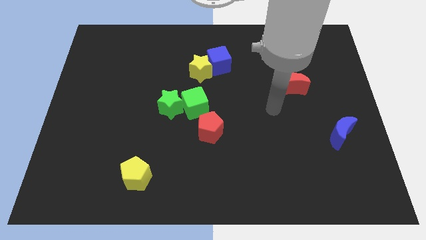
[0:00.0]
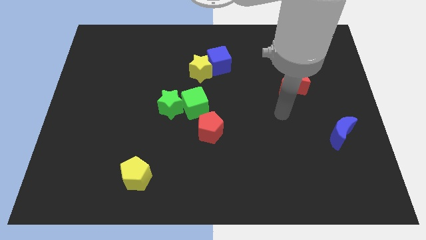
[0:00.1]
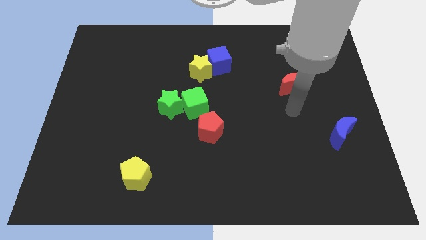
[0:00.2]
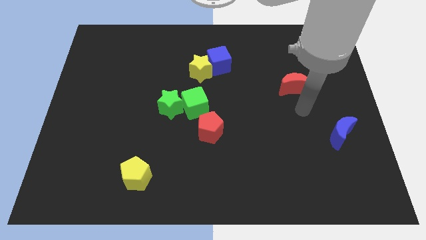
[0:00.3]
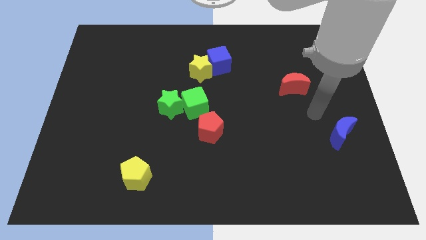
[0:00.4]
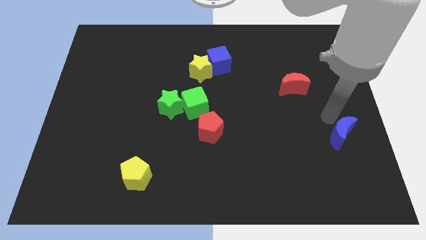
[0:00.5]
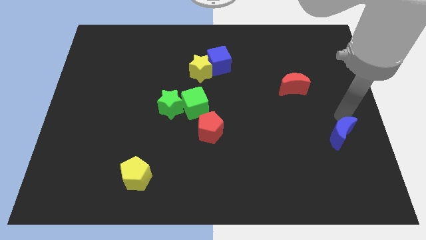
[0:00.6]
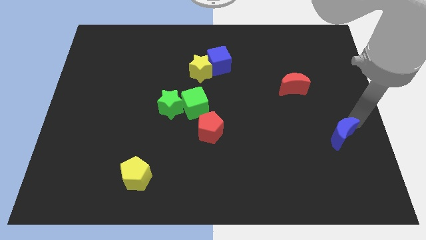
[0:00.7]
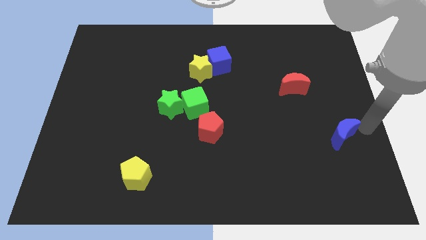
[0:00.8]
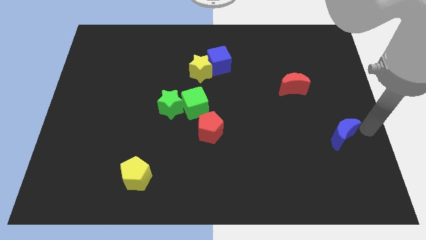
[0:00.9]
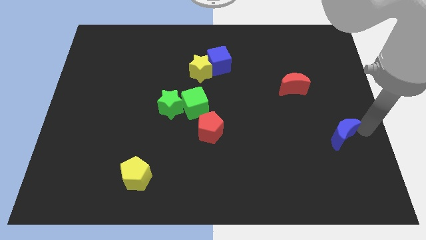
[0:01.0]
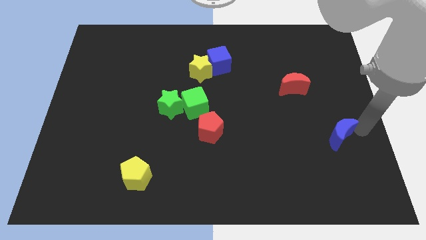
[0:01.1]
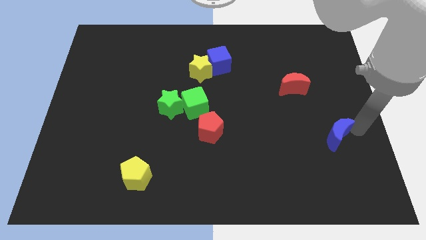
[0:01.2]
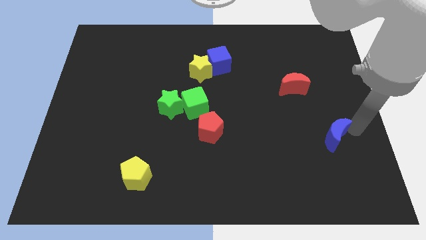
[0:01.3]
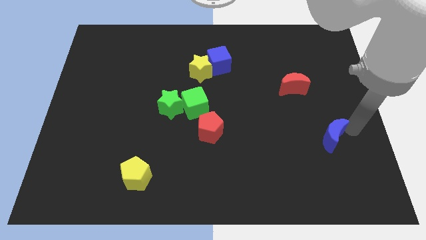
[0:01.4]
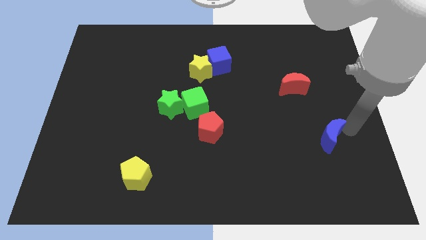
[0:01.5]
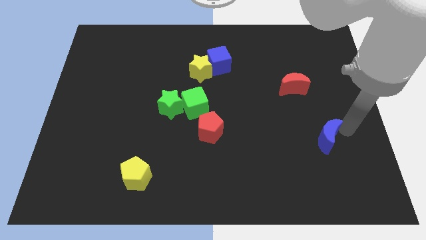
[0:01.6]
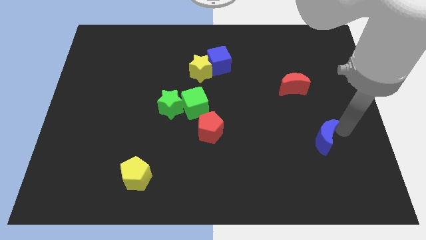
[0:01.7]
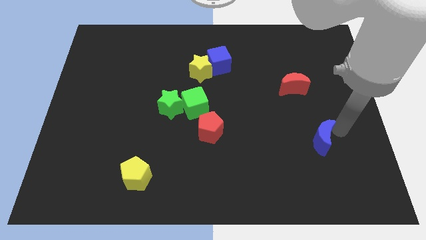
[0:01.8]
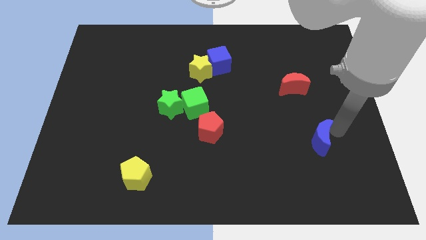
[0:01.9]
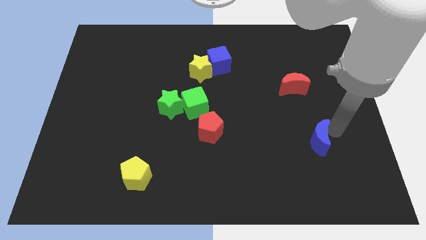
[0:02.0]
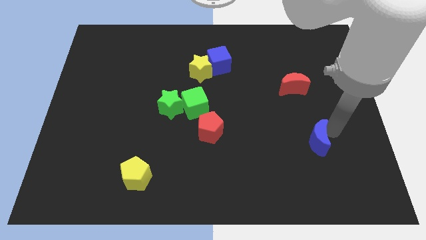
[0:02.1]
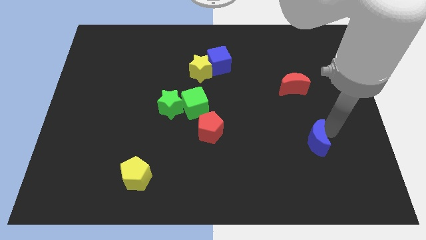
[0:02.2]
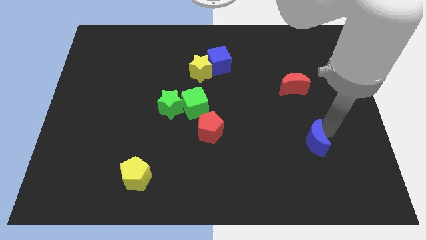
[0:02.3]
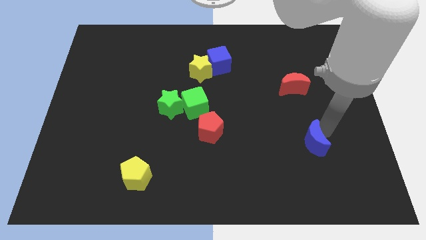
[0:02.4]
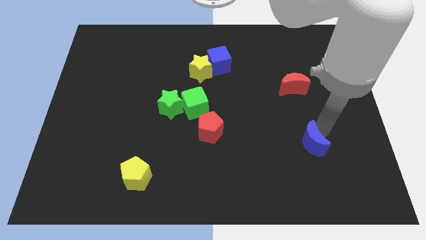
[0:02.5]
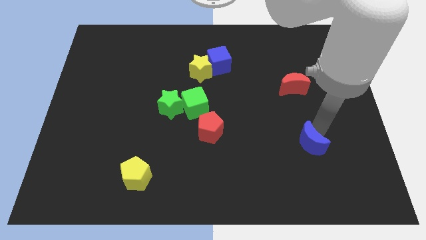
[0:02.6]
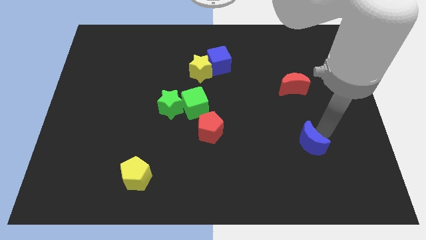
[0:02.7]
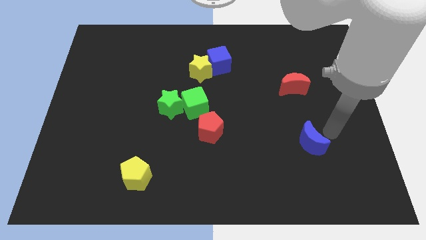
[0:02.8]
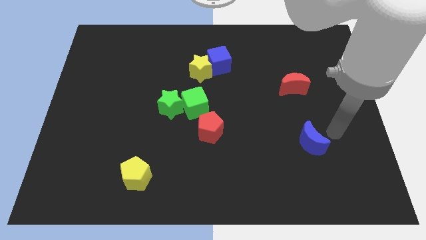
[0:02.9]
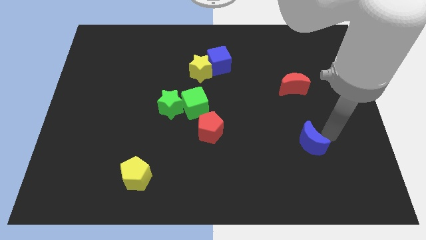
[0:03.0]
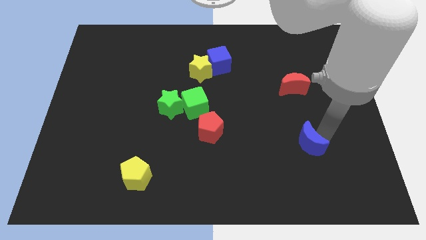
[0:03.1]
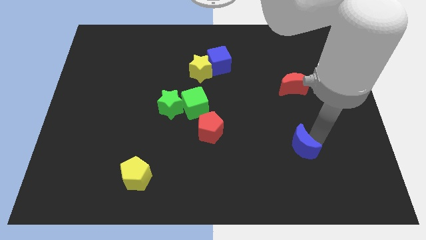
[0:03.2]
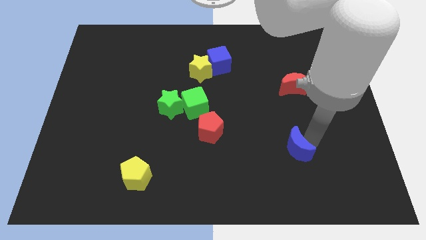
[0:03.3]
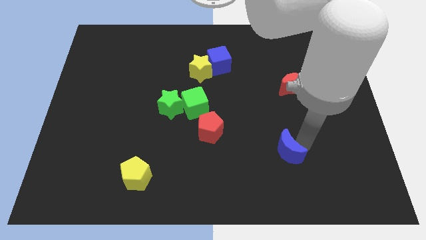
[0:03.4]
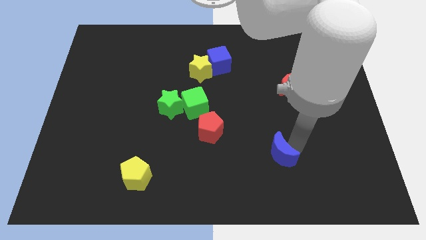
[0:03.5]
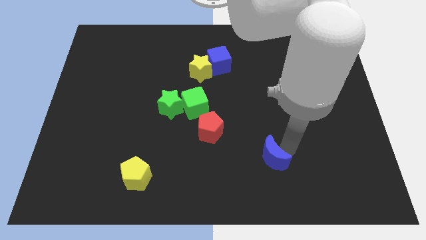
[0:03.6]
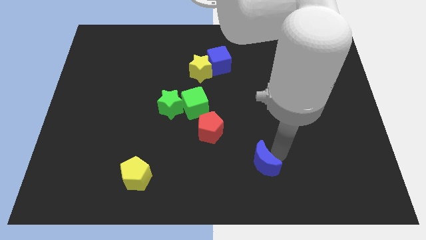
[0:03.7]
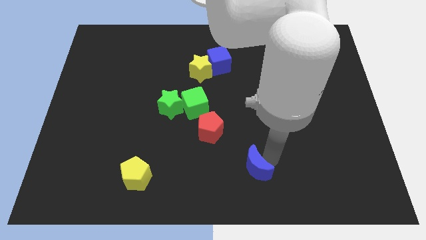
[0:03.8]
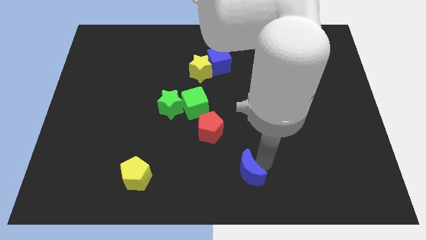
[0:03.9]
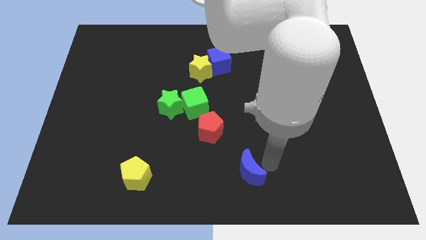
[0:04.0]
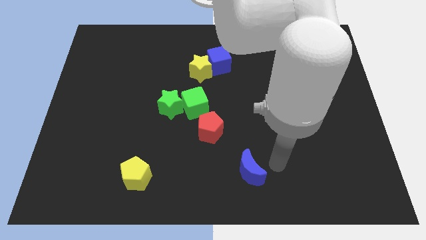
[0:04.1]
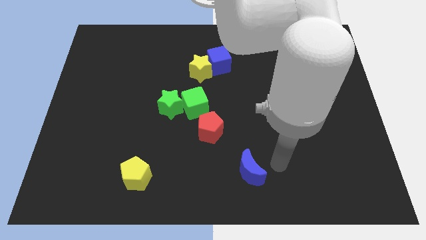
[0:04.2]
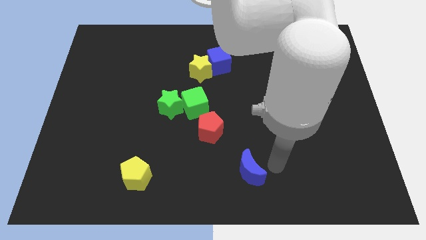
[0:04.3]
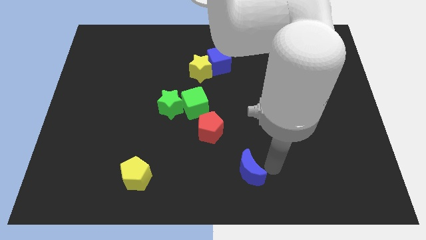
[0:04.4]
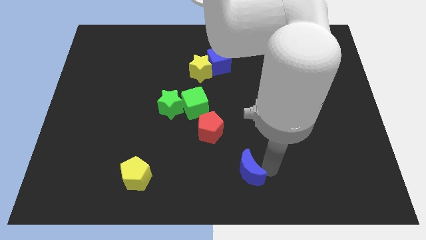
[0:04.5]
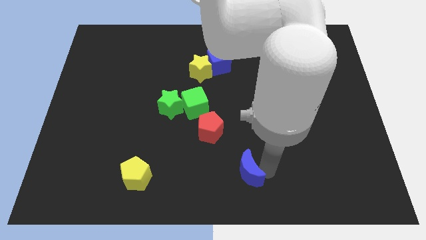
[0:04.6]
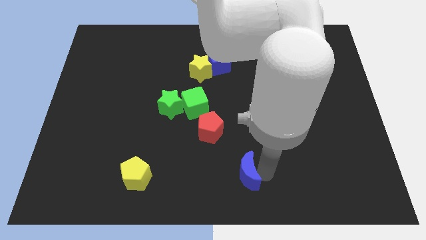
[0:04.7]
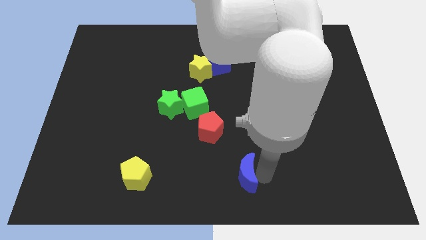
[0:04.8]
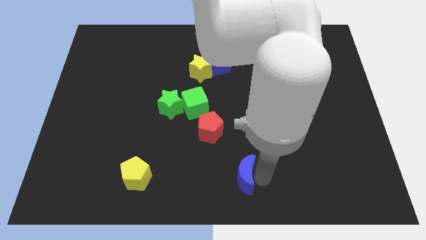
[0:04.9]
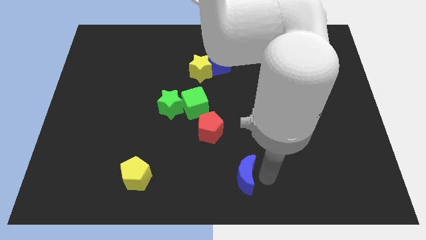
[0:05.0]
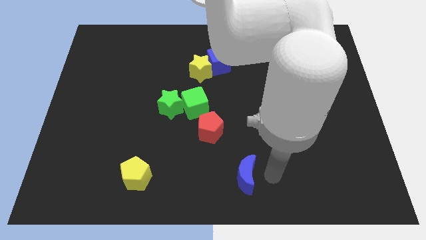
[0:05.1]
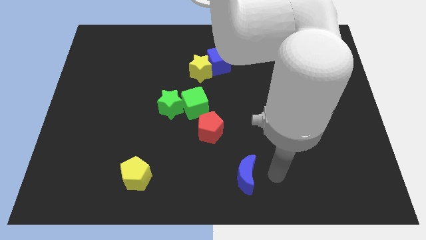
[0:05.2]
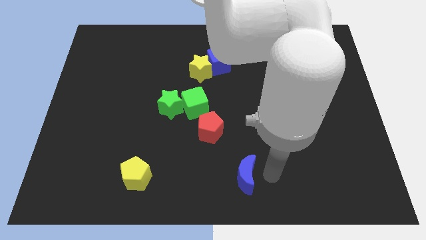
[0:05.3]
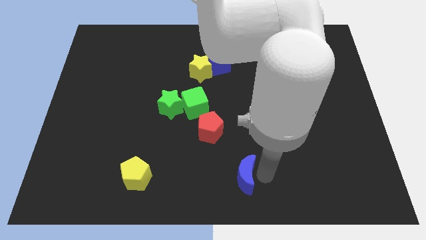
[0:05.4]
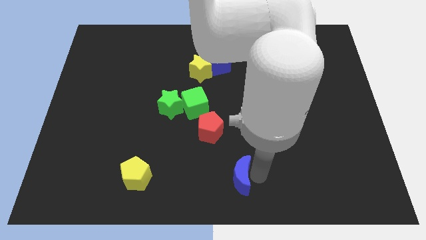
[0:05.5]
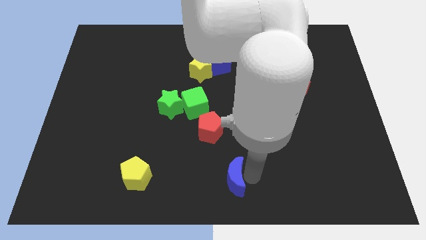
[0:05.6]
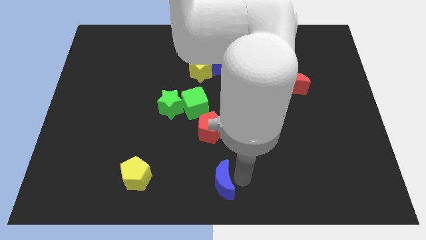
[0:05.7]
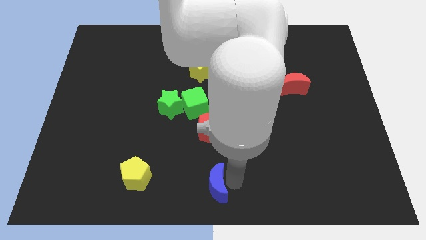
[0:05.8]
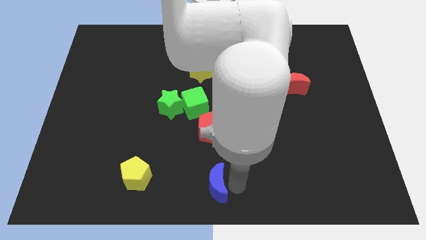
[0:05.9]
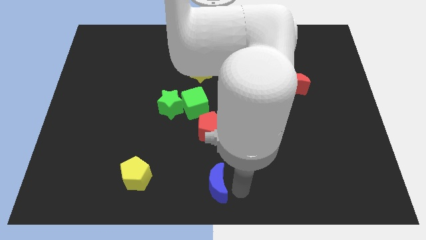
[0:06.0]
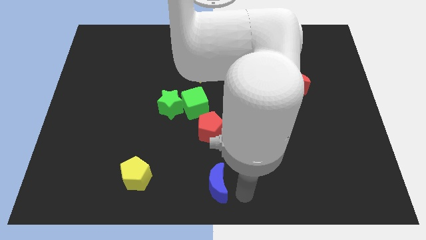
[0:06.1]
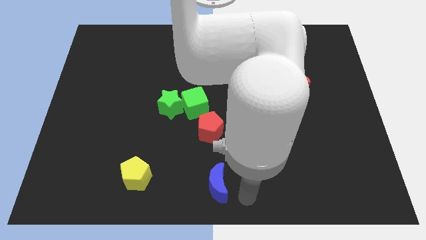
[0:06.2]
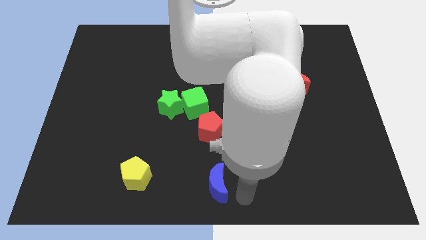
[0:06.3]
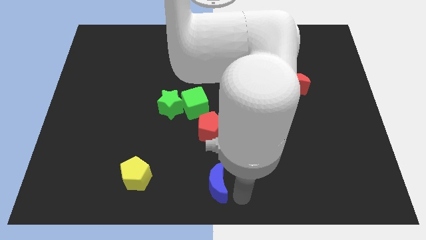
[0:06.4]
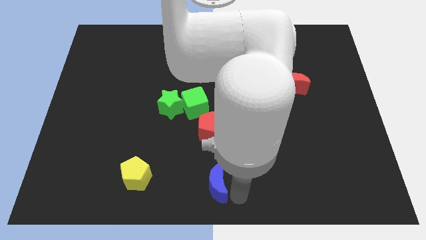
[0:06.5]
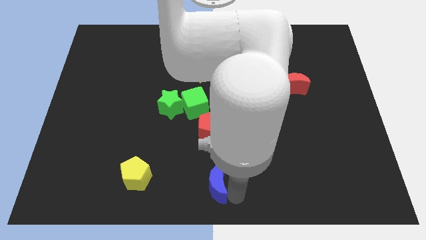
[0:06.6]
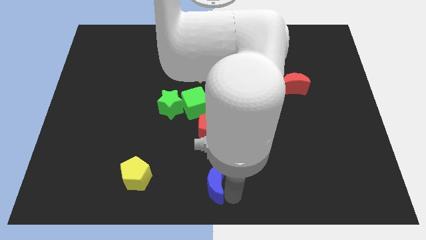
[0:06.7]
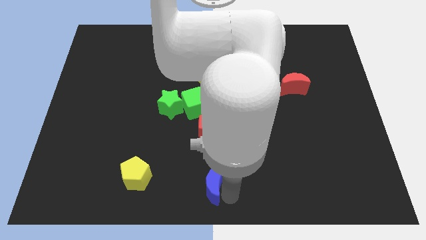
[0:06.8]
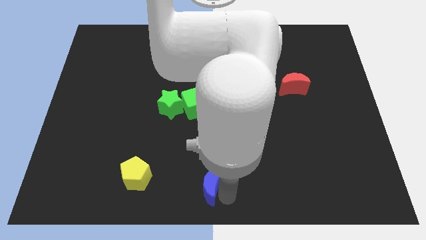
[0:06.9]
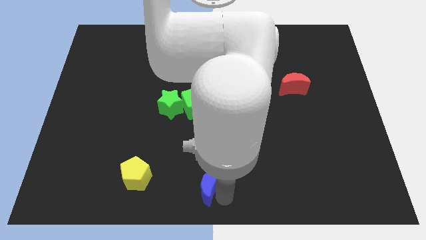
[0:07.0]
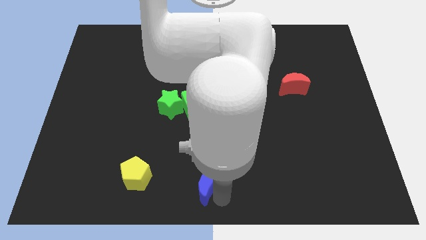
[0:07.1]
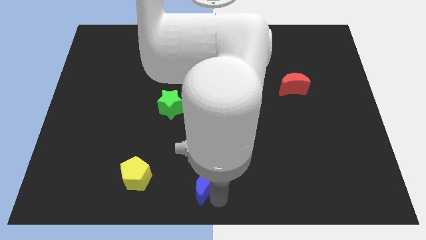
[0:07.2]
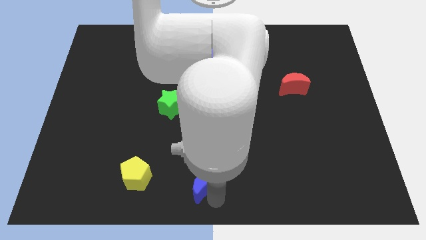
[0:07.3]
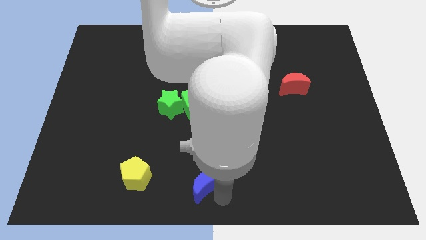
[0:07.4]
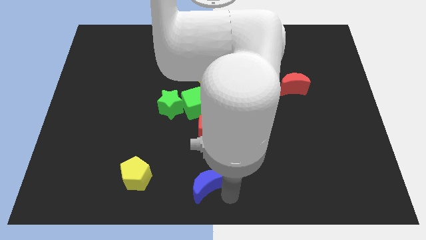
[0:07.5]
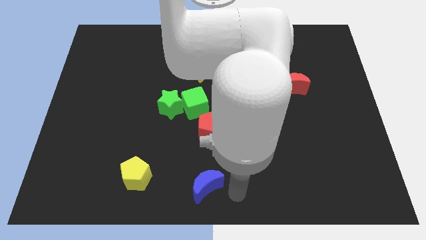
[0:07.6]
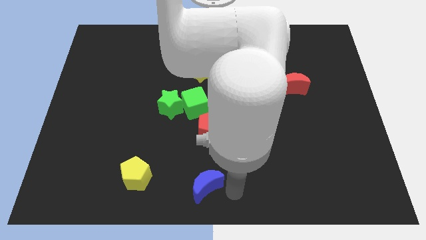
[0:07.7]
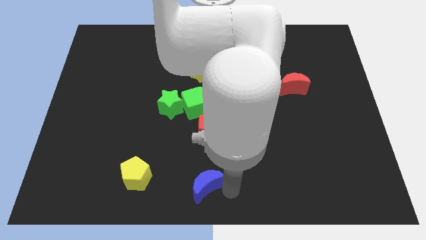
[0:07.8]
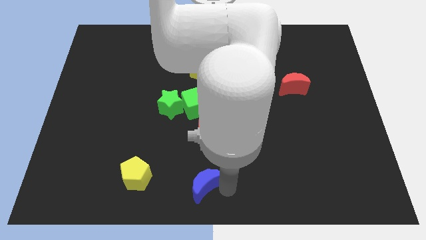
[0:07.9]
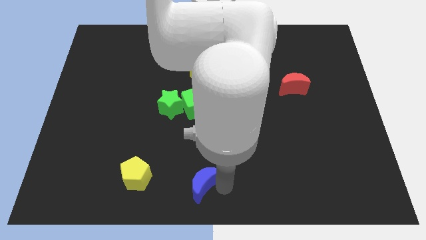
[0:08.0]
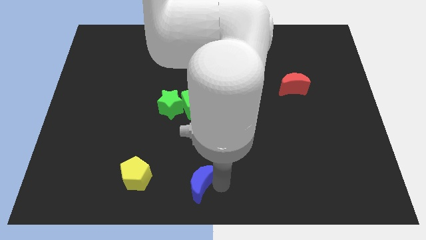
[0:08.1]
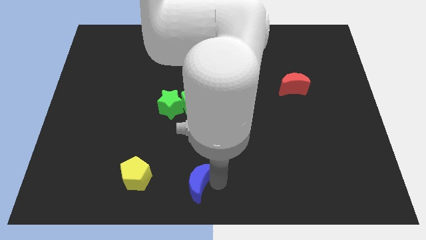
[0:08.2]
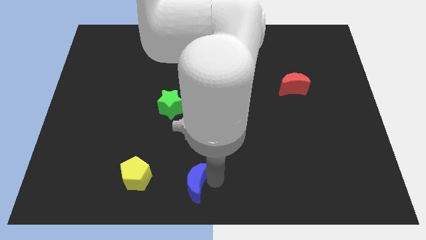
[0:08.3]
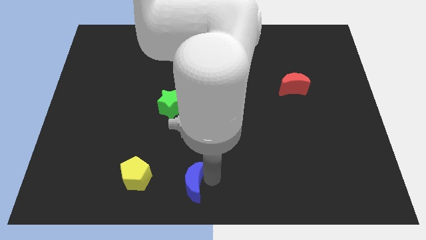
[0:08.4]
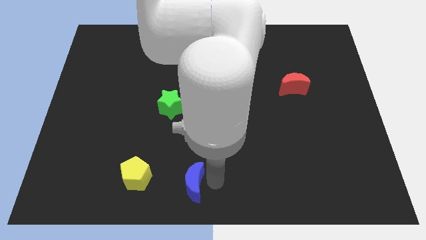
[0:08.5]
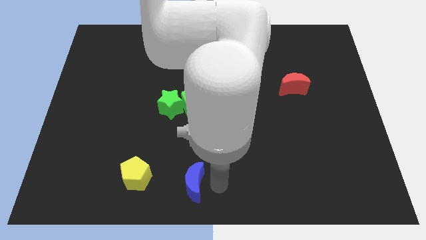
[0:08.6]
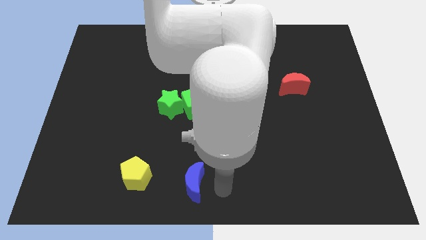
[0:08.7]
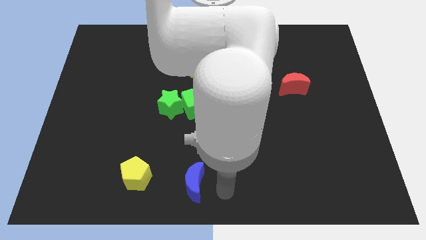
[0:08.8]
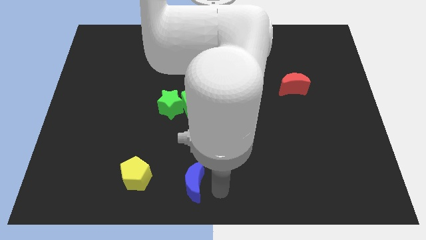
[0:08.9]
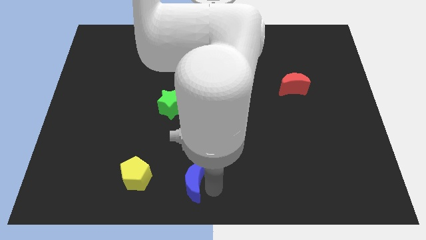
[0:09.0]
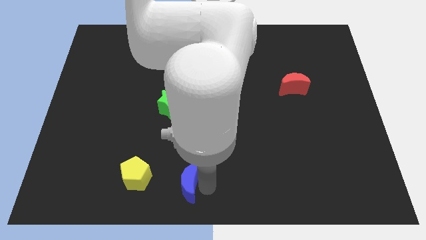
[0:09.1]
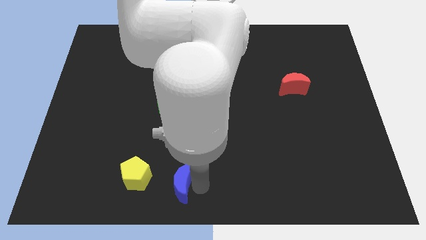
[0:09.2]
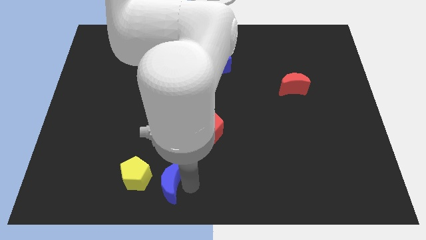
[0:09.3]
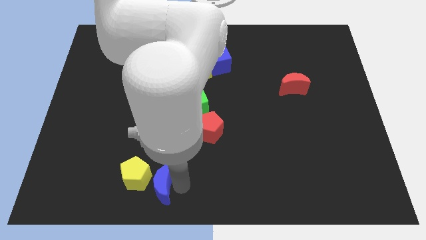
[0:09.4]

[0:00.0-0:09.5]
push the blue moon next to the yellow pentagon
